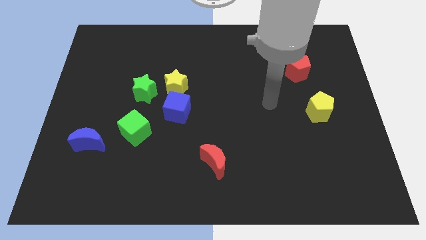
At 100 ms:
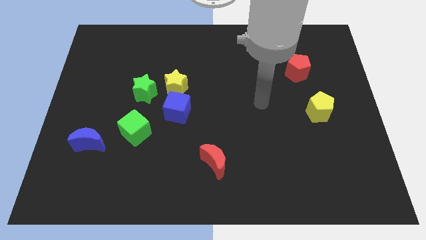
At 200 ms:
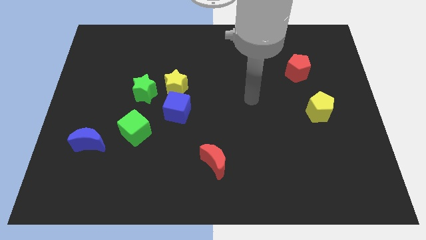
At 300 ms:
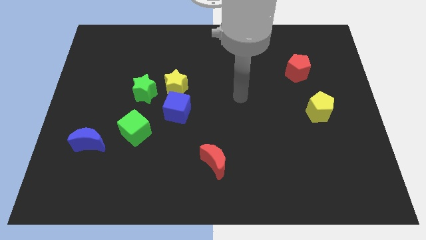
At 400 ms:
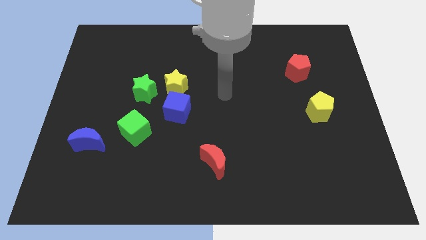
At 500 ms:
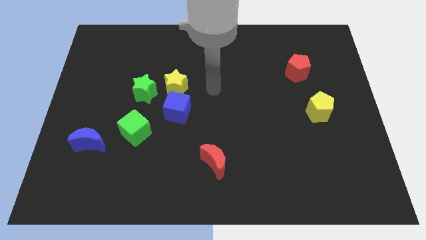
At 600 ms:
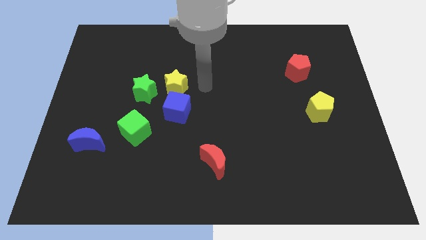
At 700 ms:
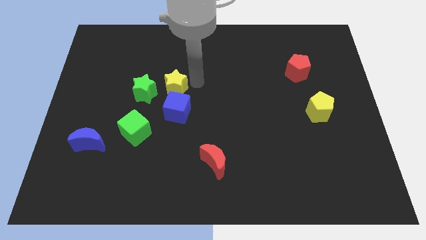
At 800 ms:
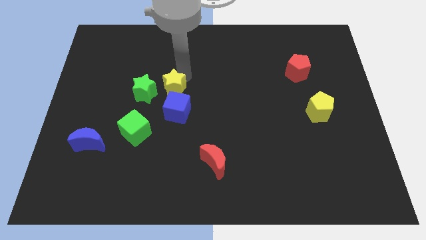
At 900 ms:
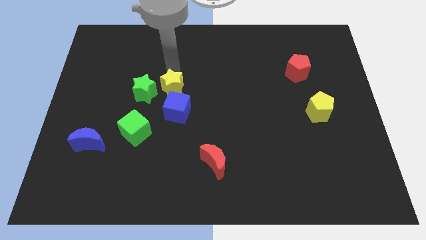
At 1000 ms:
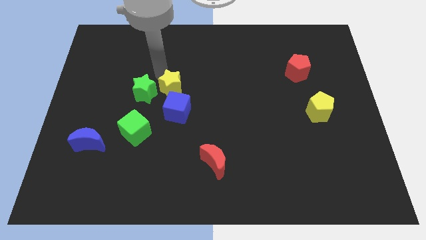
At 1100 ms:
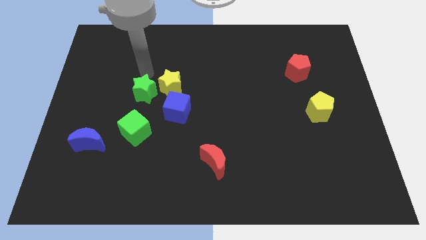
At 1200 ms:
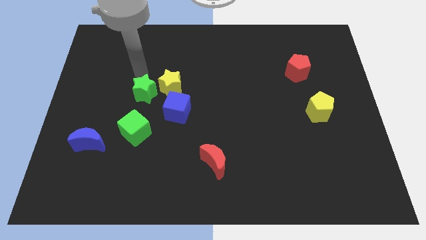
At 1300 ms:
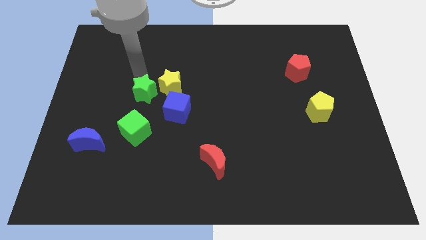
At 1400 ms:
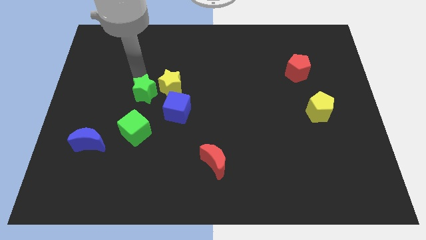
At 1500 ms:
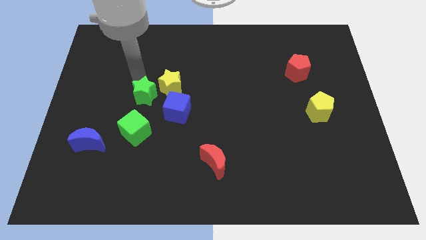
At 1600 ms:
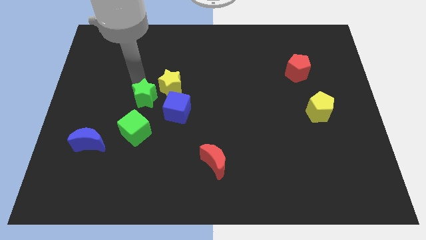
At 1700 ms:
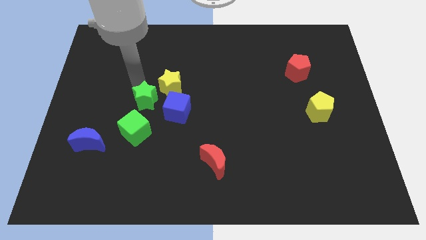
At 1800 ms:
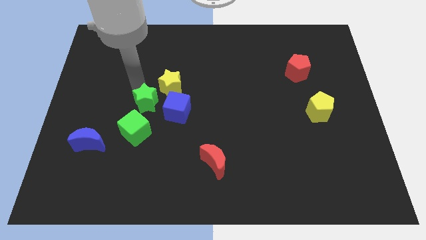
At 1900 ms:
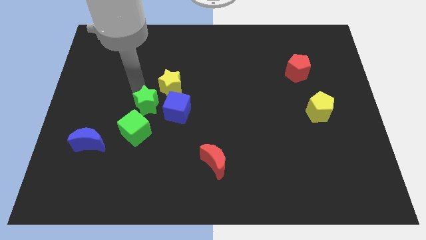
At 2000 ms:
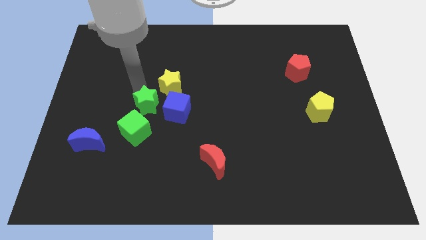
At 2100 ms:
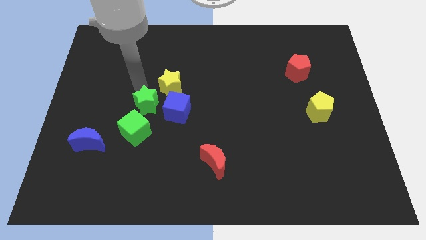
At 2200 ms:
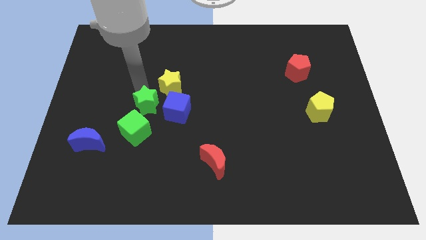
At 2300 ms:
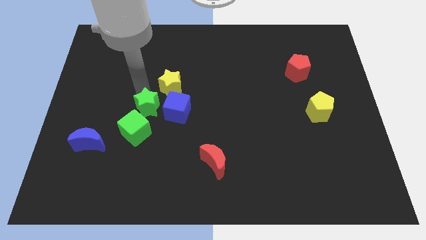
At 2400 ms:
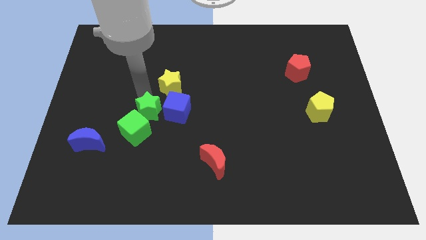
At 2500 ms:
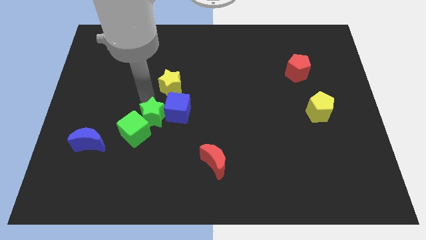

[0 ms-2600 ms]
push the green star down slightly

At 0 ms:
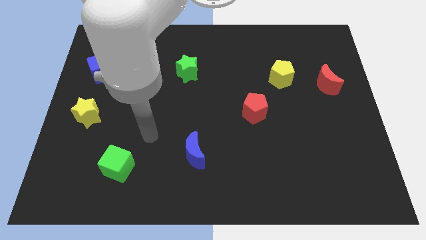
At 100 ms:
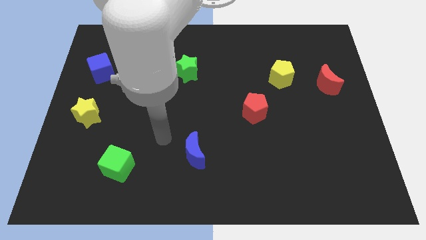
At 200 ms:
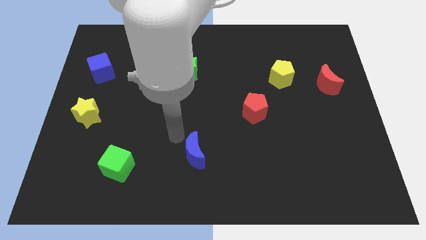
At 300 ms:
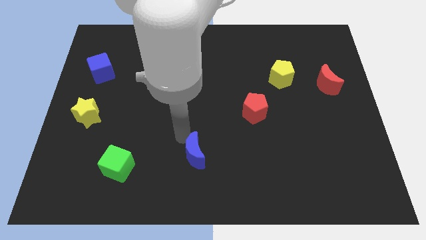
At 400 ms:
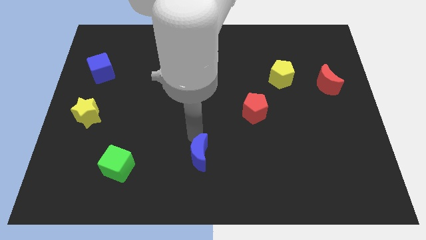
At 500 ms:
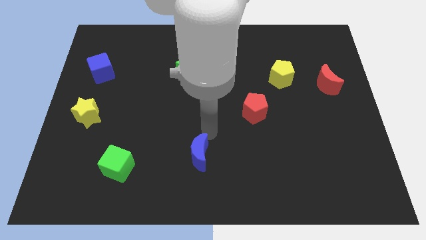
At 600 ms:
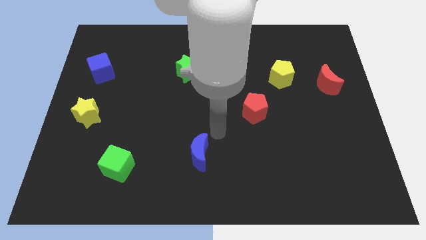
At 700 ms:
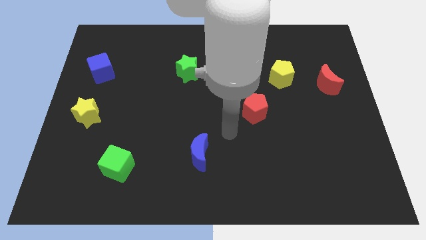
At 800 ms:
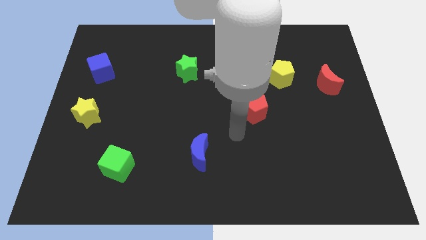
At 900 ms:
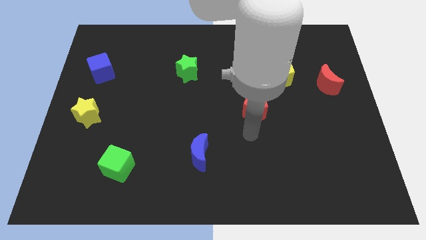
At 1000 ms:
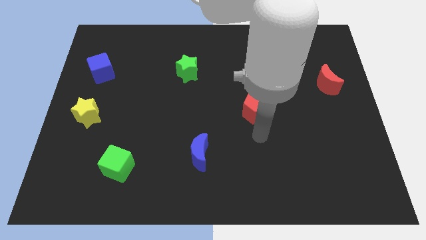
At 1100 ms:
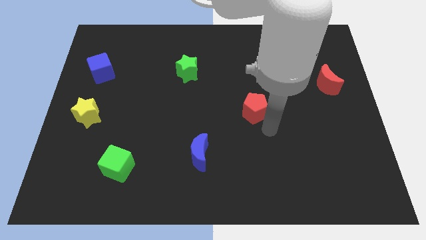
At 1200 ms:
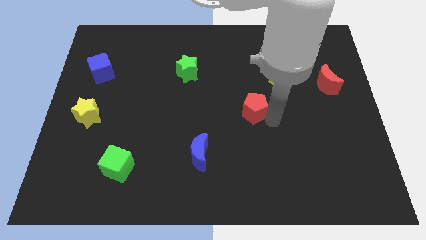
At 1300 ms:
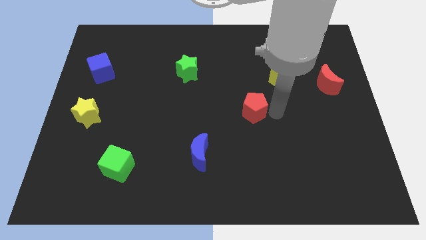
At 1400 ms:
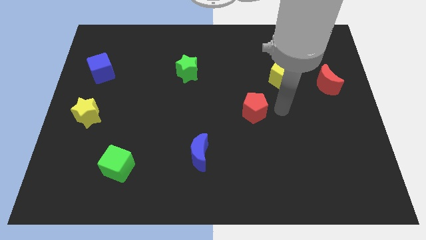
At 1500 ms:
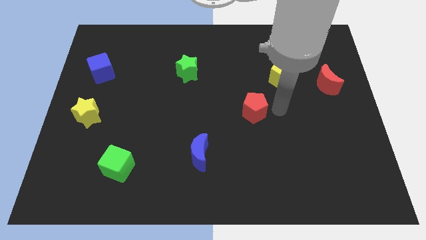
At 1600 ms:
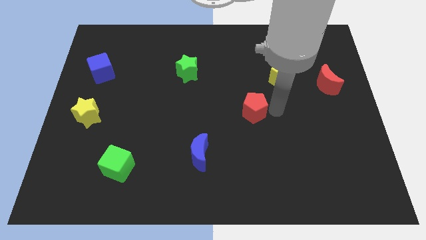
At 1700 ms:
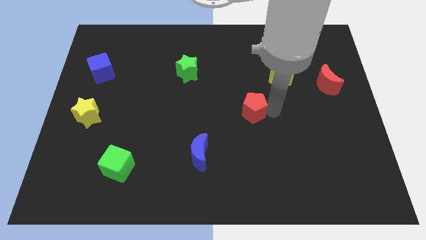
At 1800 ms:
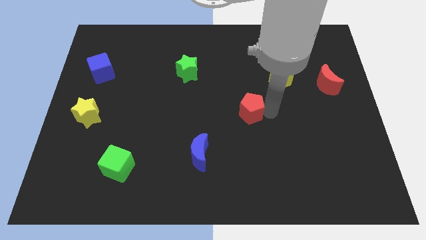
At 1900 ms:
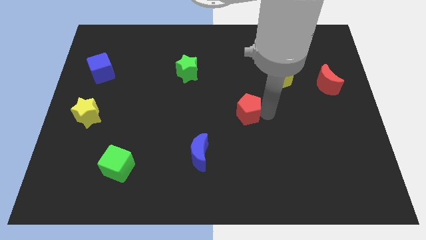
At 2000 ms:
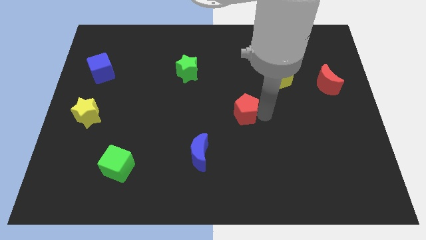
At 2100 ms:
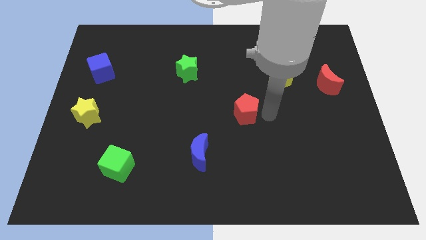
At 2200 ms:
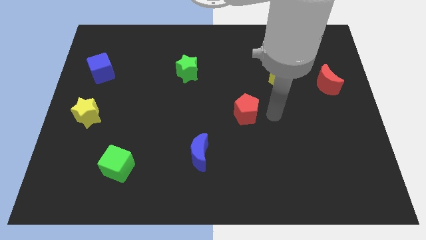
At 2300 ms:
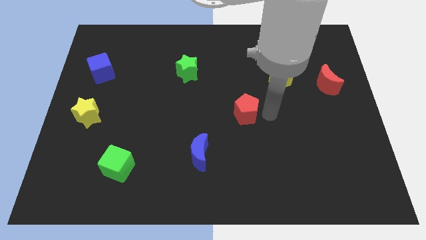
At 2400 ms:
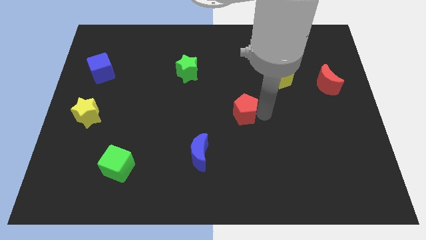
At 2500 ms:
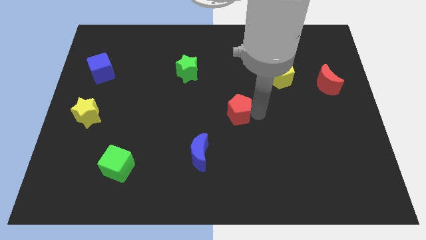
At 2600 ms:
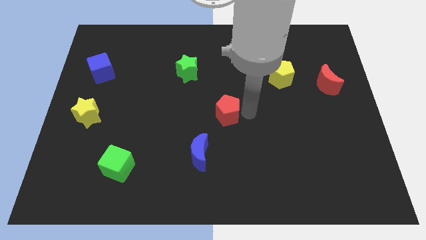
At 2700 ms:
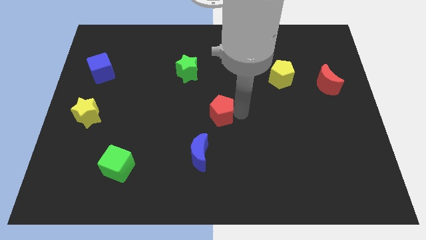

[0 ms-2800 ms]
push the red pentagon a little to the left

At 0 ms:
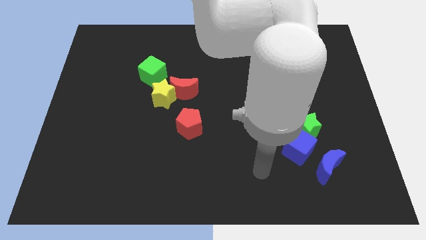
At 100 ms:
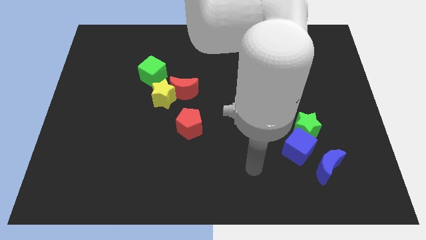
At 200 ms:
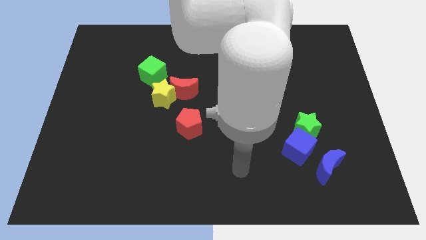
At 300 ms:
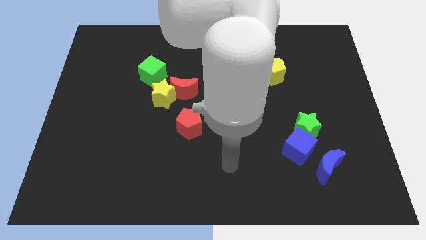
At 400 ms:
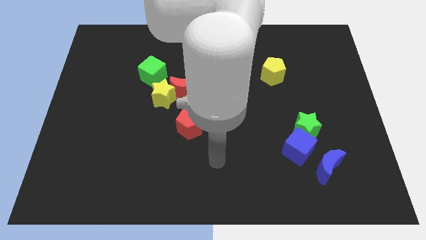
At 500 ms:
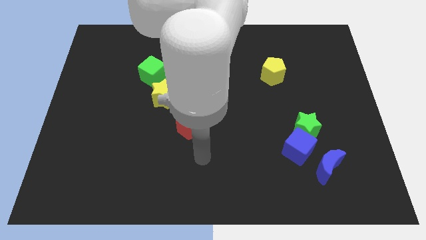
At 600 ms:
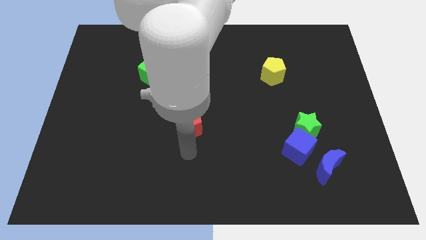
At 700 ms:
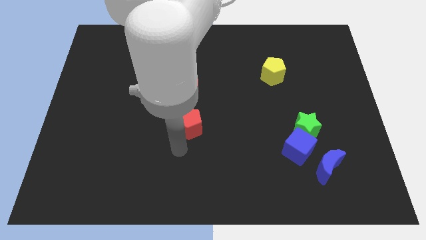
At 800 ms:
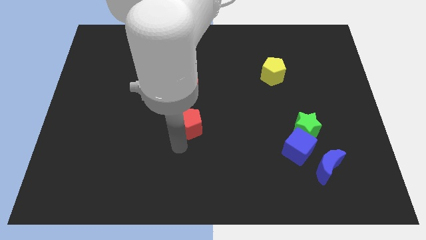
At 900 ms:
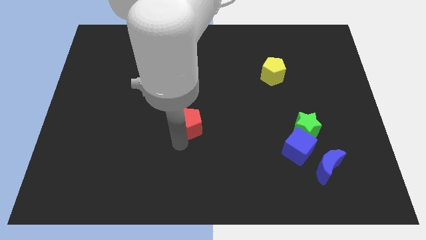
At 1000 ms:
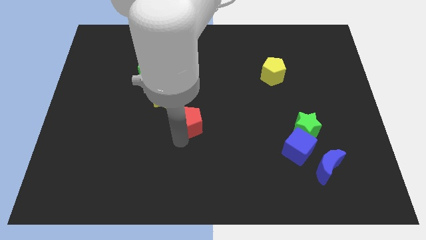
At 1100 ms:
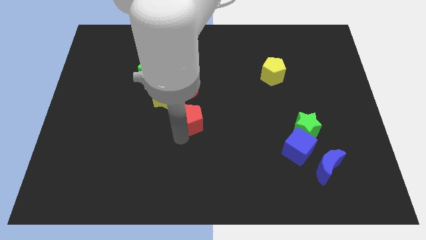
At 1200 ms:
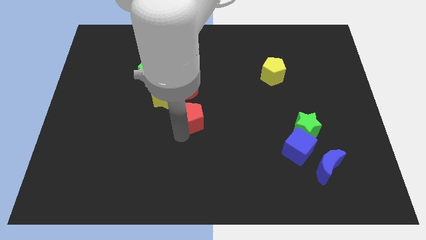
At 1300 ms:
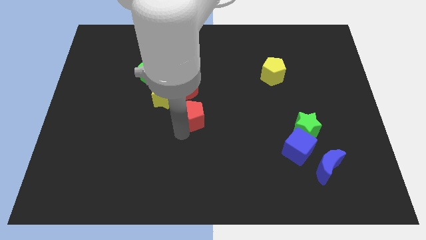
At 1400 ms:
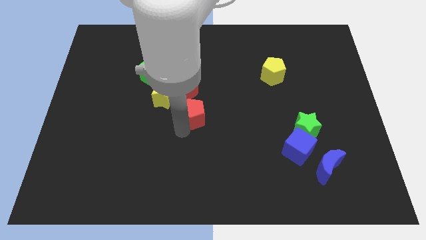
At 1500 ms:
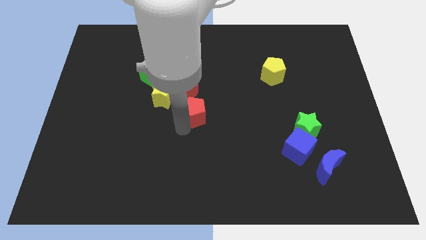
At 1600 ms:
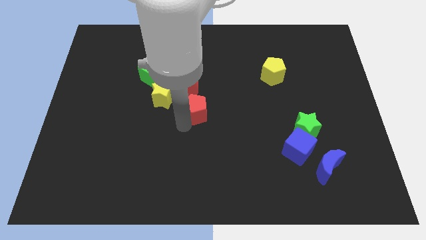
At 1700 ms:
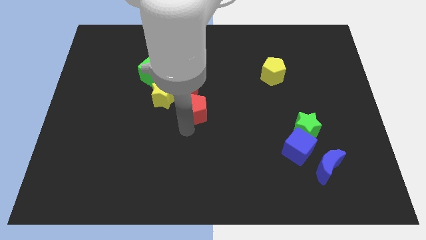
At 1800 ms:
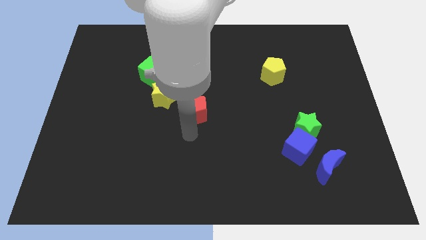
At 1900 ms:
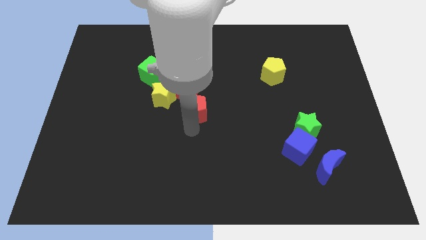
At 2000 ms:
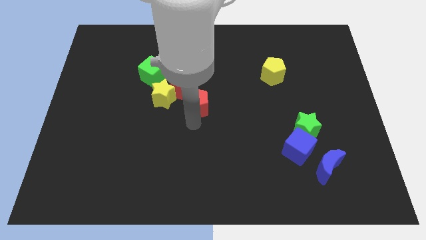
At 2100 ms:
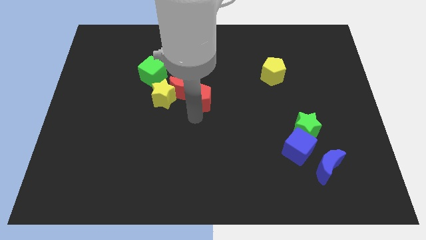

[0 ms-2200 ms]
slightly slide the red pentagon upwards

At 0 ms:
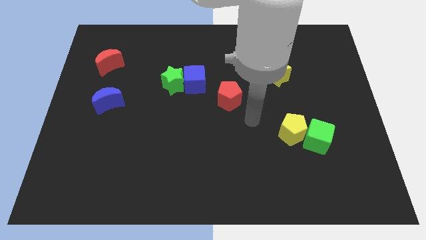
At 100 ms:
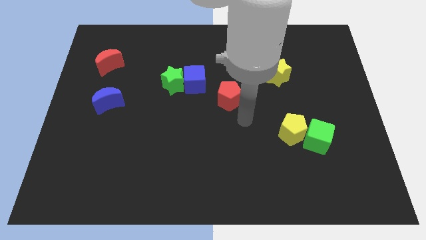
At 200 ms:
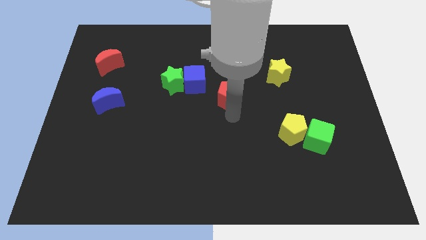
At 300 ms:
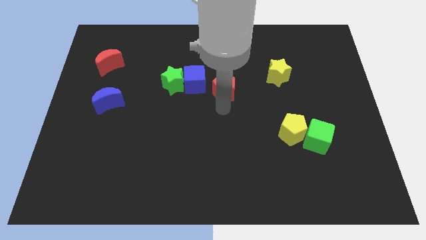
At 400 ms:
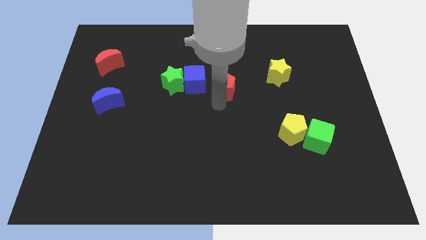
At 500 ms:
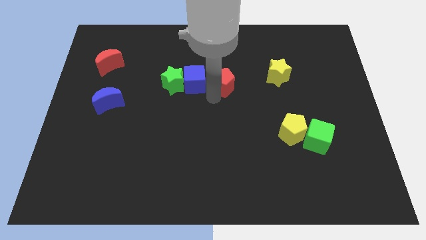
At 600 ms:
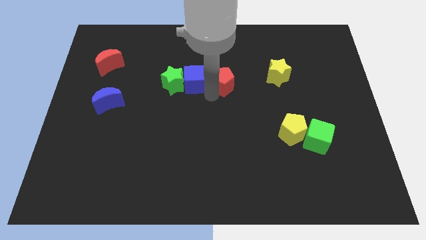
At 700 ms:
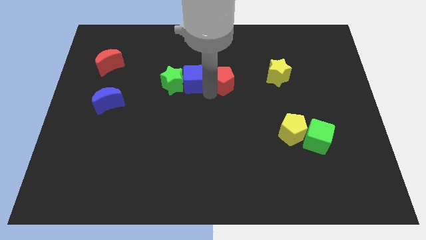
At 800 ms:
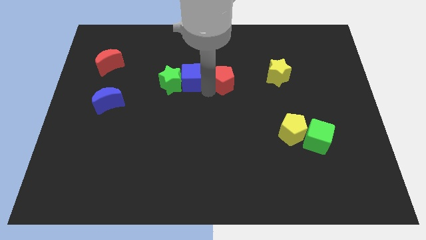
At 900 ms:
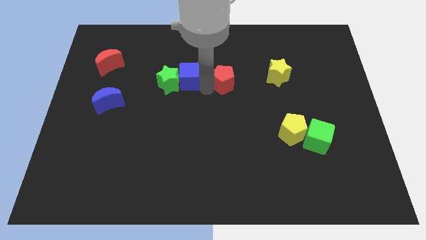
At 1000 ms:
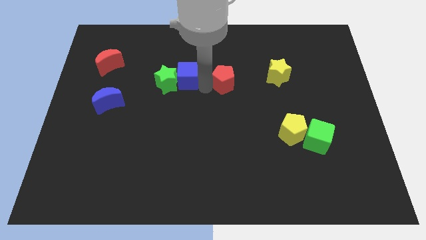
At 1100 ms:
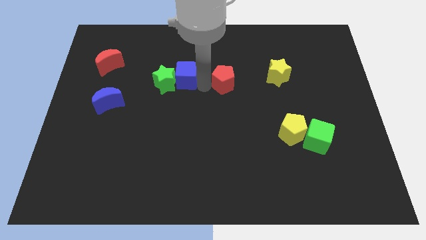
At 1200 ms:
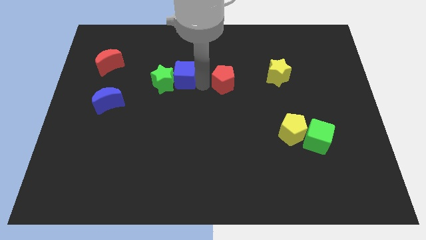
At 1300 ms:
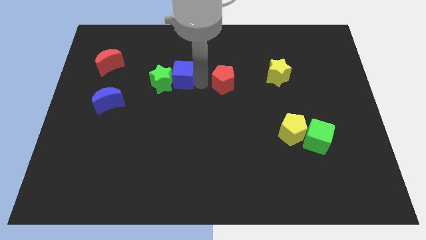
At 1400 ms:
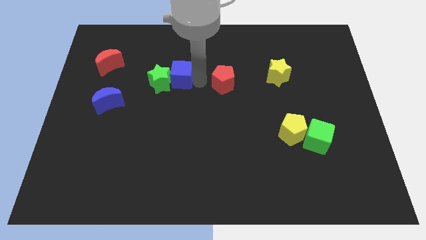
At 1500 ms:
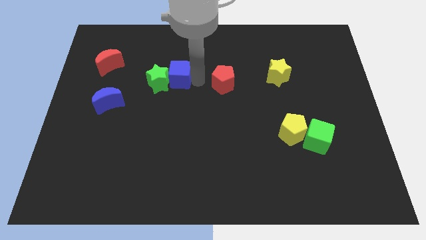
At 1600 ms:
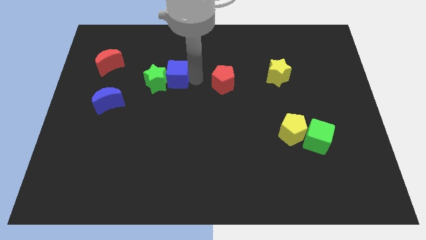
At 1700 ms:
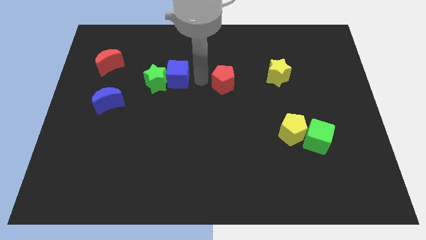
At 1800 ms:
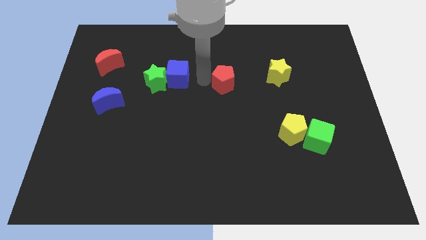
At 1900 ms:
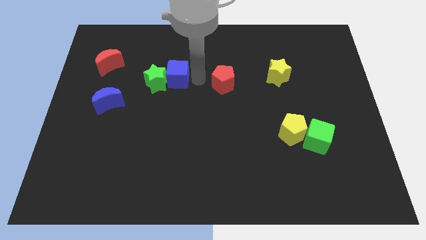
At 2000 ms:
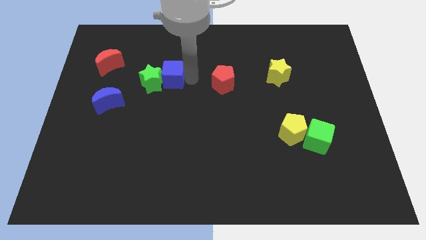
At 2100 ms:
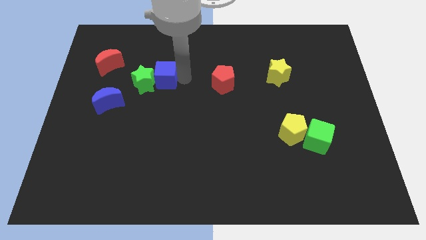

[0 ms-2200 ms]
slightly slide the blue cube to the left
